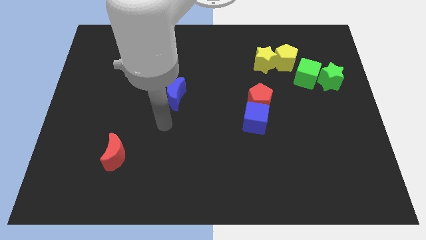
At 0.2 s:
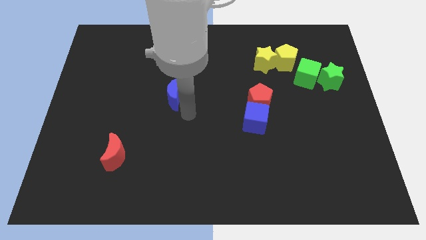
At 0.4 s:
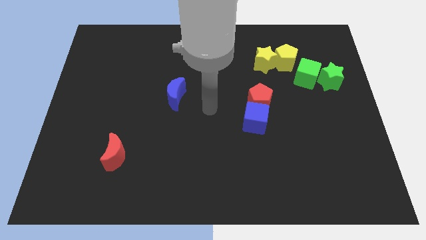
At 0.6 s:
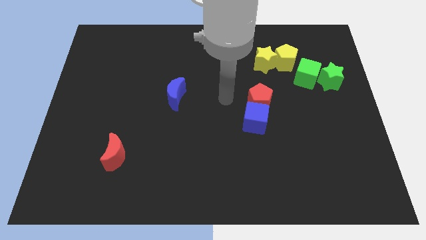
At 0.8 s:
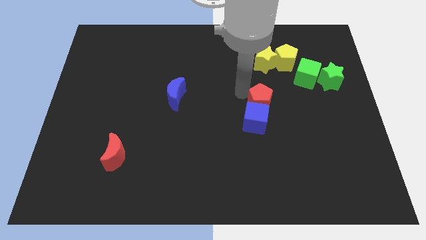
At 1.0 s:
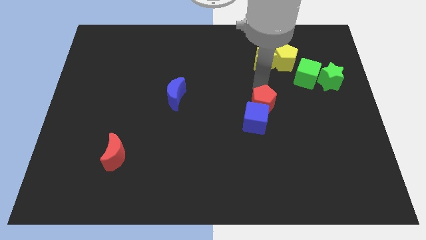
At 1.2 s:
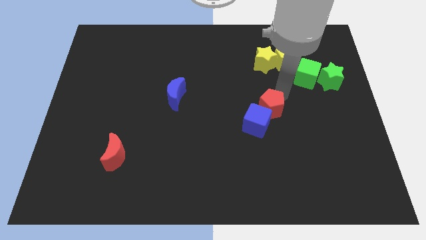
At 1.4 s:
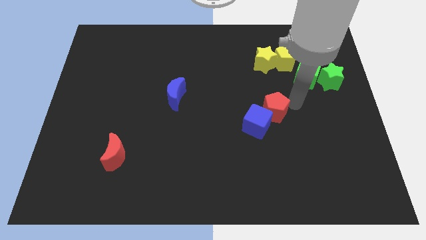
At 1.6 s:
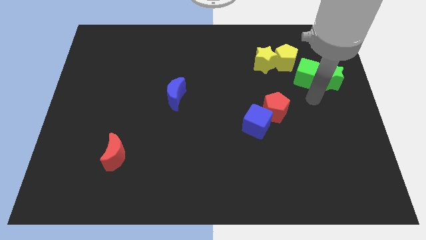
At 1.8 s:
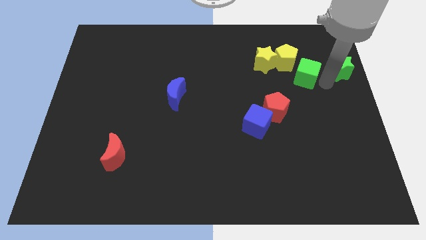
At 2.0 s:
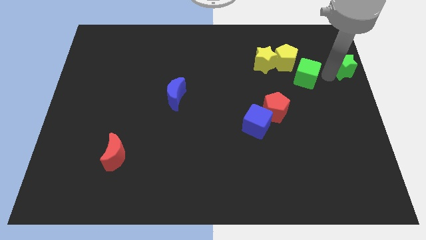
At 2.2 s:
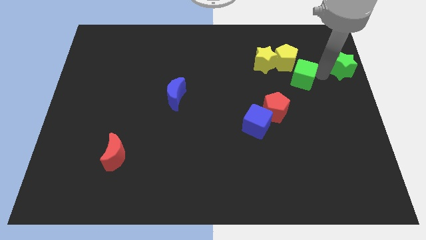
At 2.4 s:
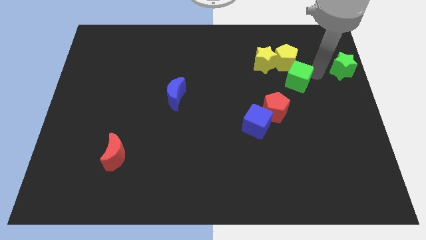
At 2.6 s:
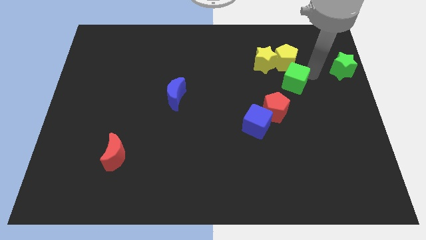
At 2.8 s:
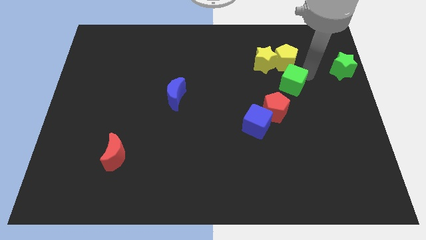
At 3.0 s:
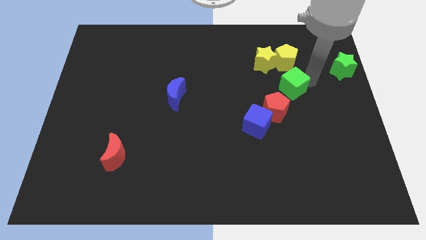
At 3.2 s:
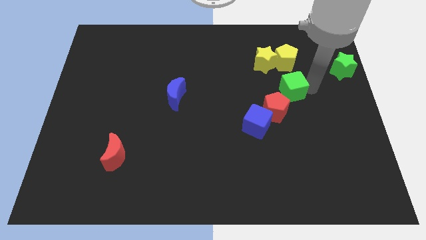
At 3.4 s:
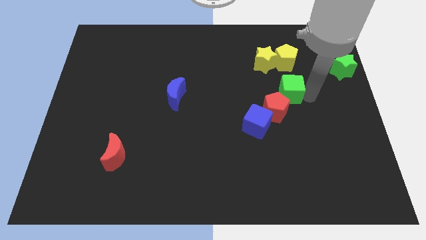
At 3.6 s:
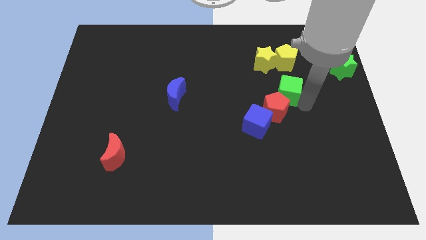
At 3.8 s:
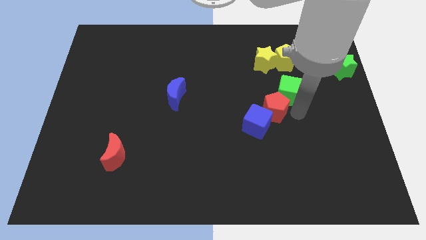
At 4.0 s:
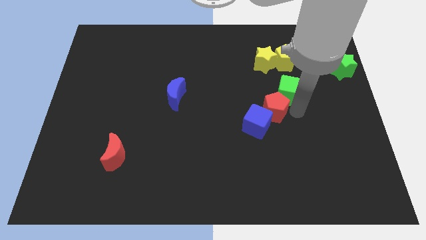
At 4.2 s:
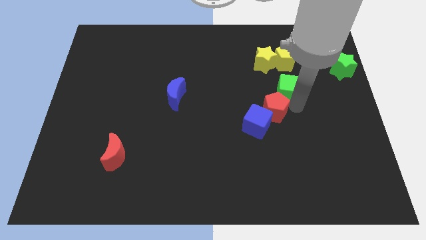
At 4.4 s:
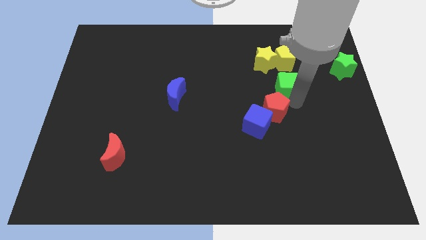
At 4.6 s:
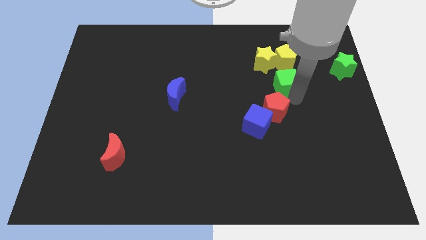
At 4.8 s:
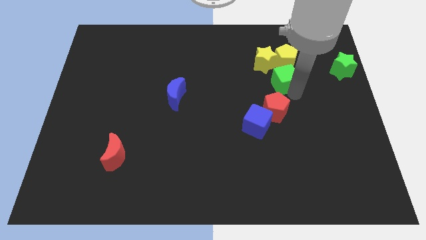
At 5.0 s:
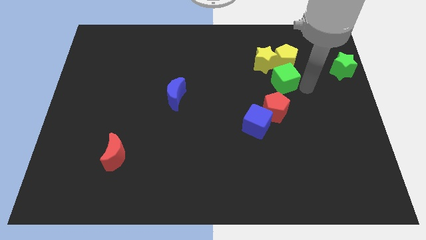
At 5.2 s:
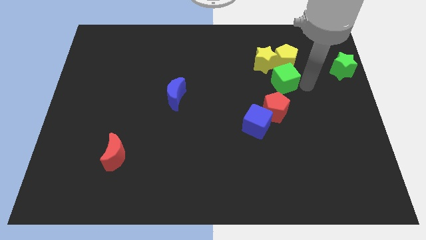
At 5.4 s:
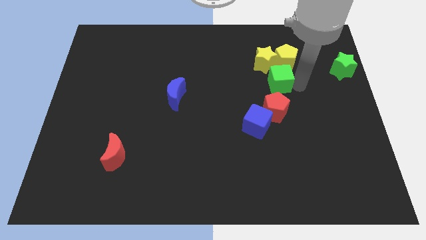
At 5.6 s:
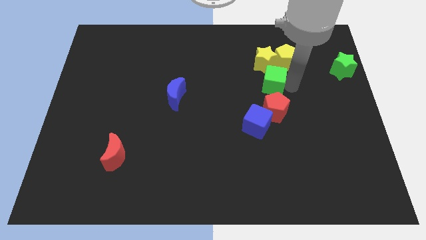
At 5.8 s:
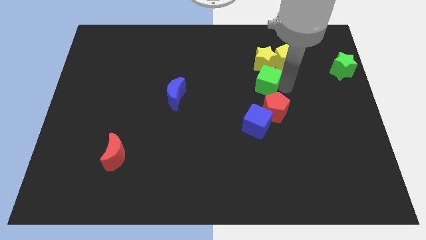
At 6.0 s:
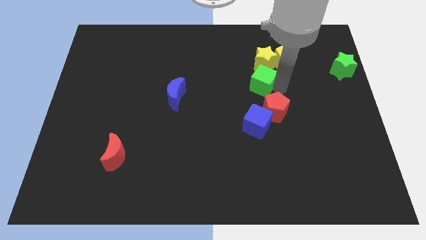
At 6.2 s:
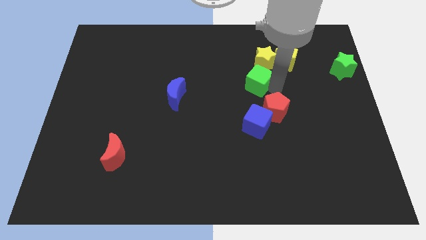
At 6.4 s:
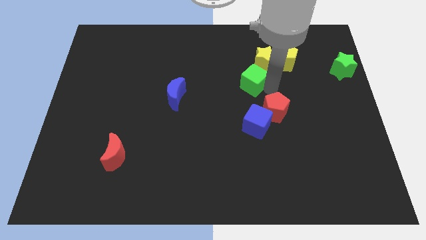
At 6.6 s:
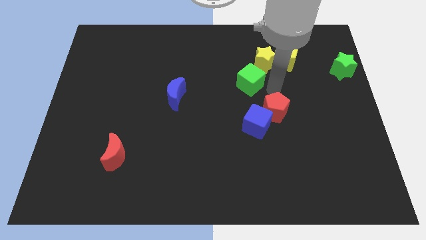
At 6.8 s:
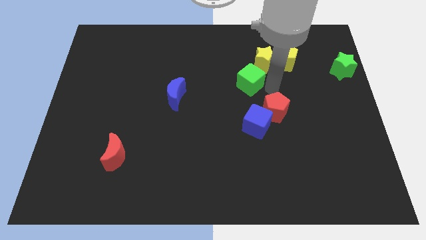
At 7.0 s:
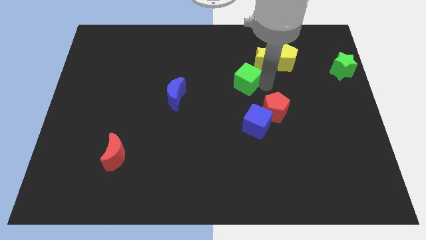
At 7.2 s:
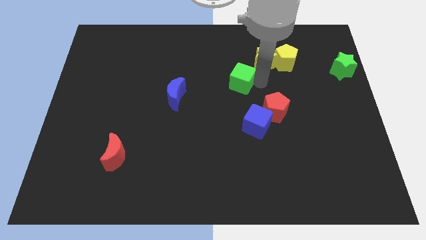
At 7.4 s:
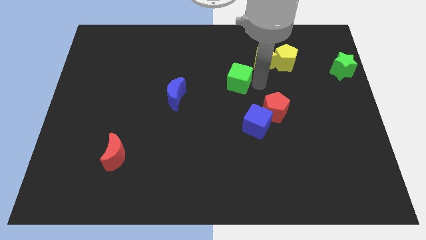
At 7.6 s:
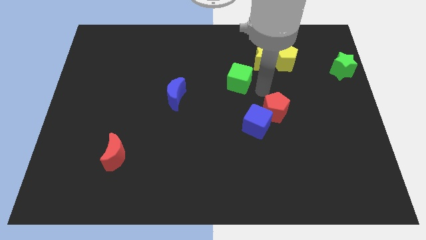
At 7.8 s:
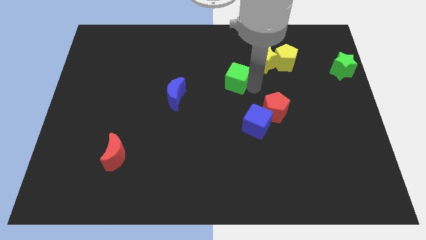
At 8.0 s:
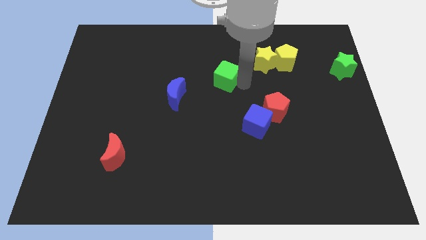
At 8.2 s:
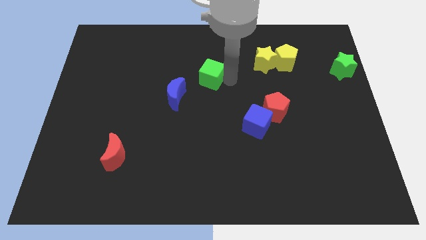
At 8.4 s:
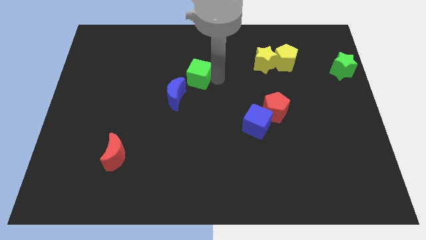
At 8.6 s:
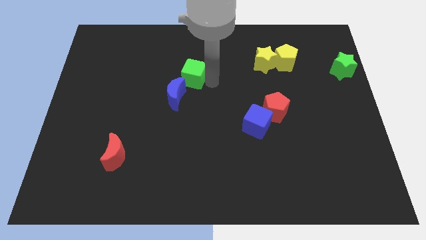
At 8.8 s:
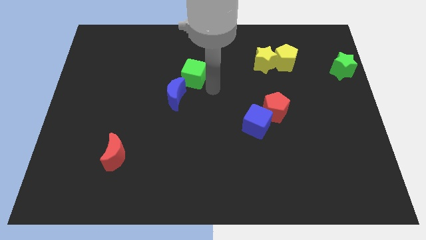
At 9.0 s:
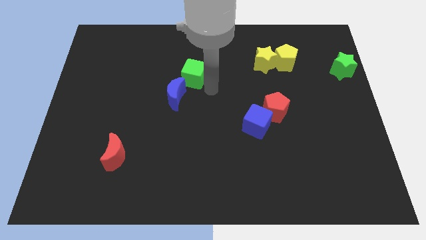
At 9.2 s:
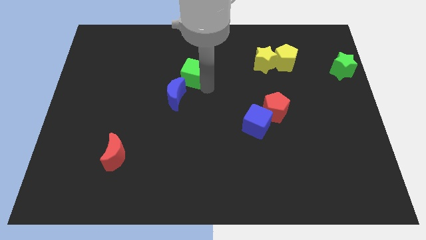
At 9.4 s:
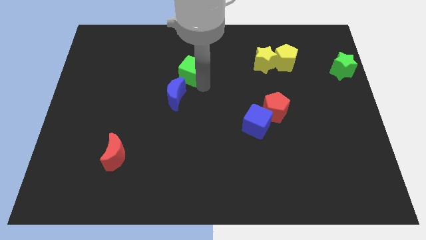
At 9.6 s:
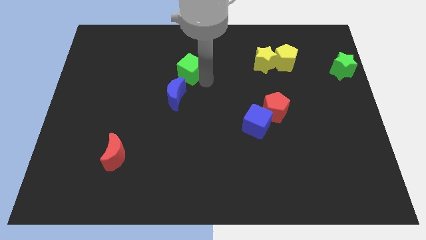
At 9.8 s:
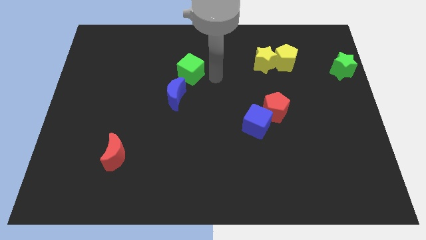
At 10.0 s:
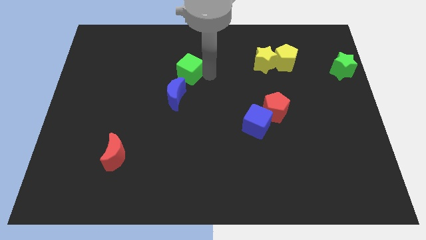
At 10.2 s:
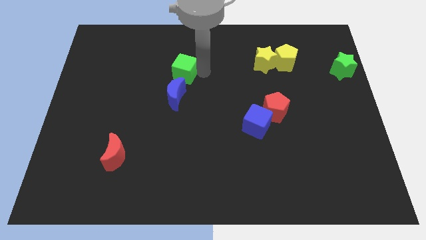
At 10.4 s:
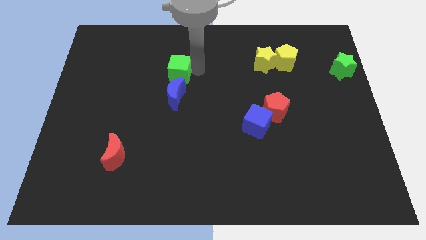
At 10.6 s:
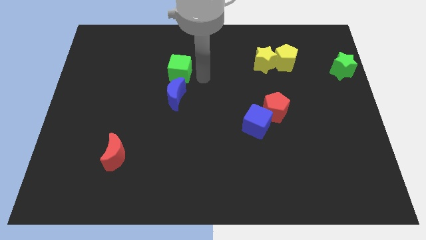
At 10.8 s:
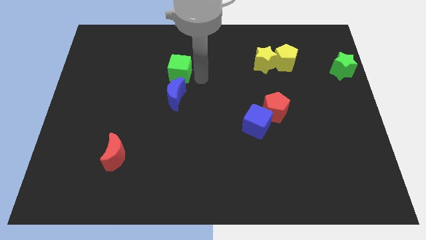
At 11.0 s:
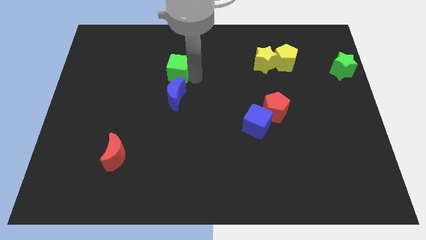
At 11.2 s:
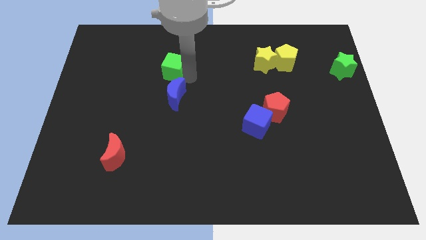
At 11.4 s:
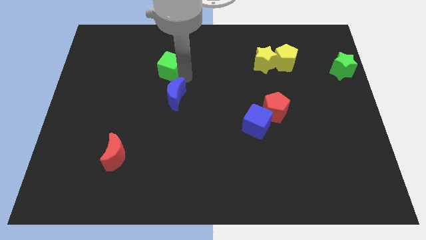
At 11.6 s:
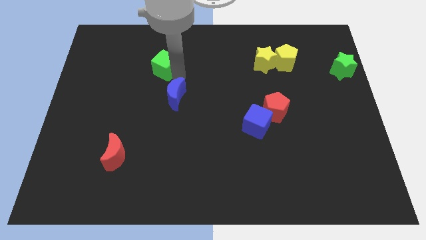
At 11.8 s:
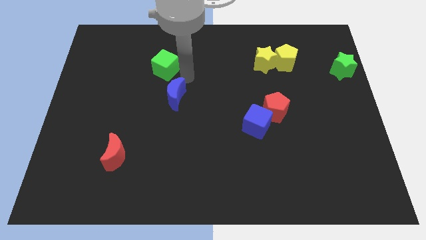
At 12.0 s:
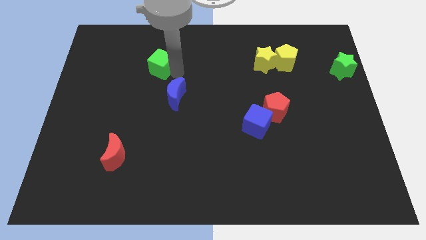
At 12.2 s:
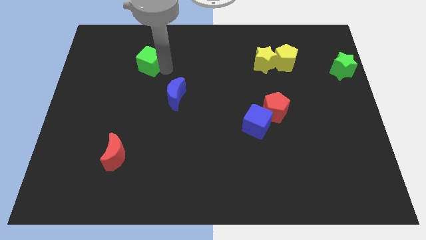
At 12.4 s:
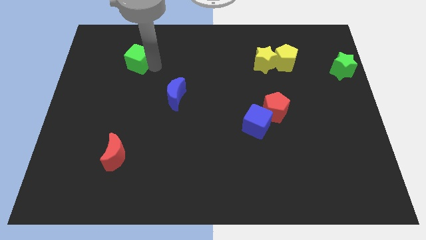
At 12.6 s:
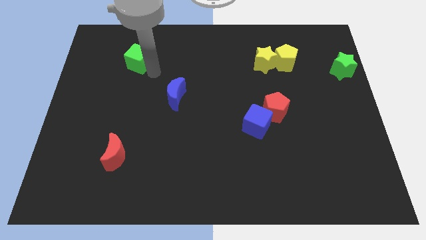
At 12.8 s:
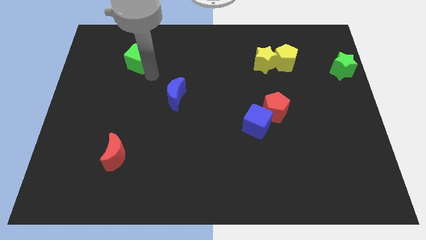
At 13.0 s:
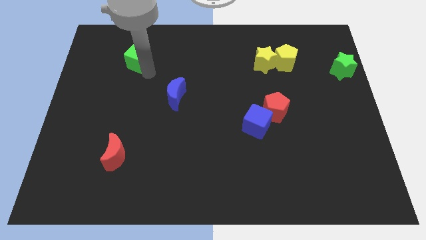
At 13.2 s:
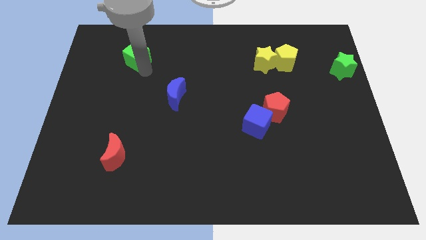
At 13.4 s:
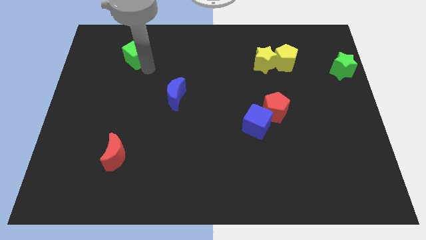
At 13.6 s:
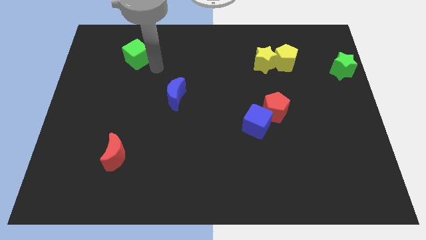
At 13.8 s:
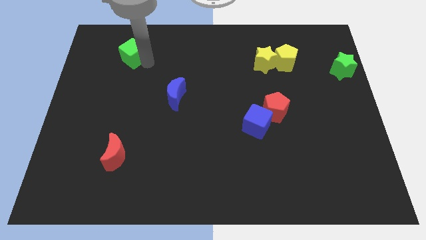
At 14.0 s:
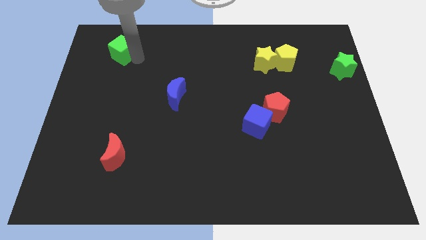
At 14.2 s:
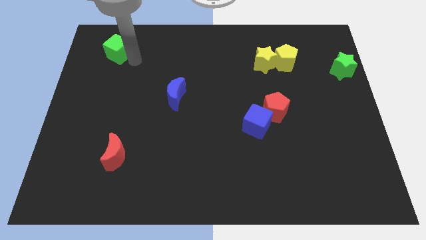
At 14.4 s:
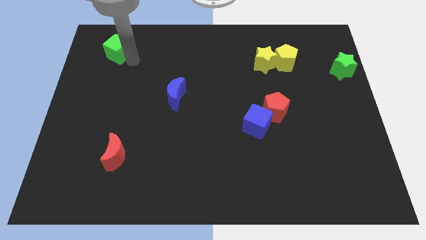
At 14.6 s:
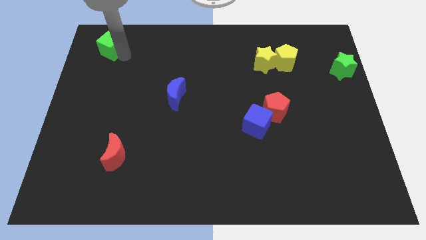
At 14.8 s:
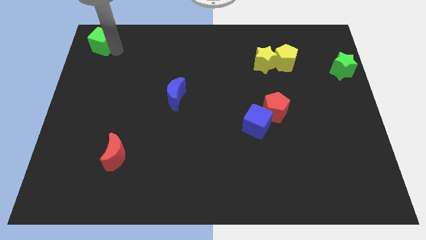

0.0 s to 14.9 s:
push the green cube to the top left
